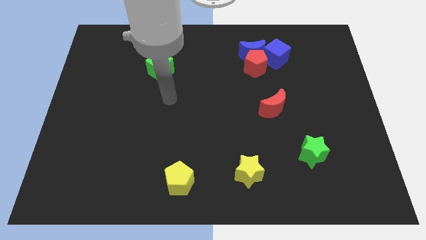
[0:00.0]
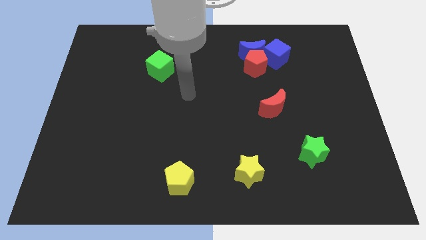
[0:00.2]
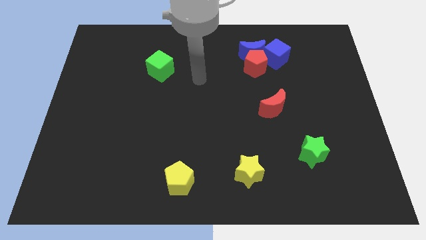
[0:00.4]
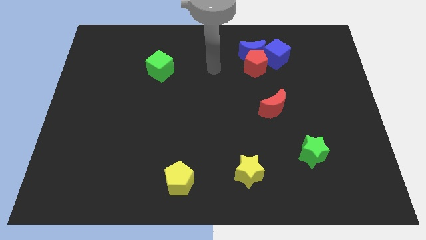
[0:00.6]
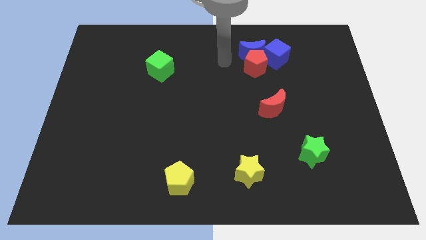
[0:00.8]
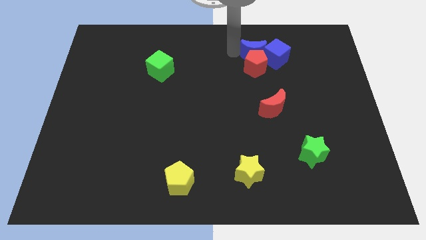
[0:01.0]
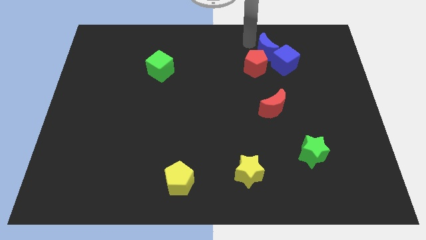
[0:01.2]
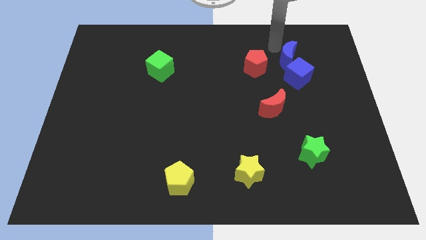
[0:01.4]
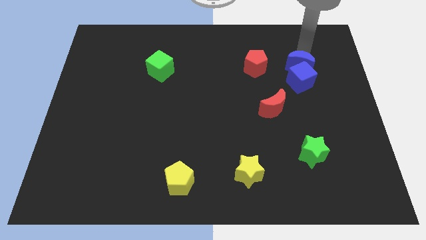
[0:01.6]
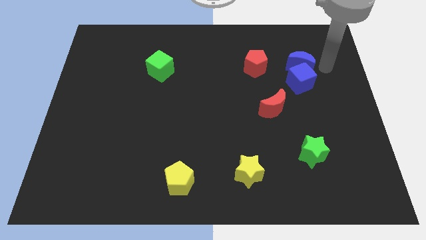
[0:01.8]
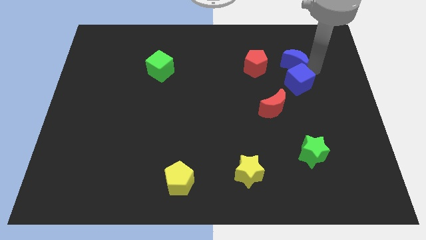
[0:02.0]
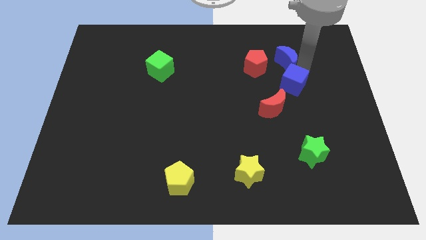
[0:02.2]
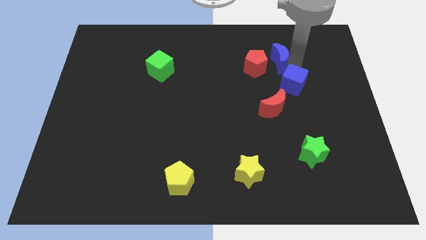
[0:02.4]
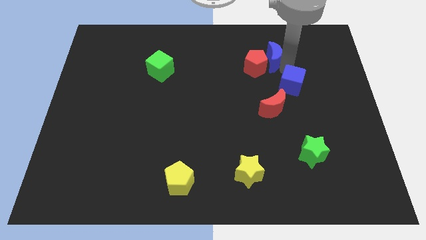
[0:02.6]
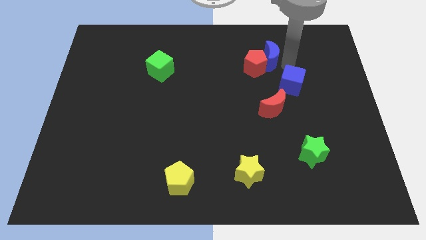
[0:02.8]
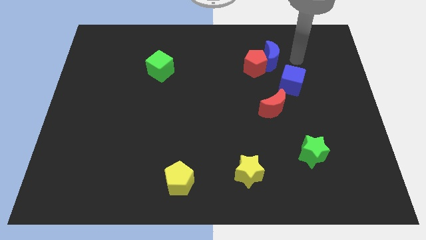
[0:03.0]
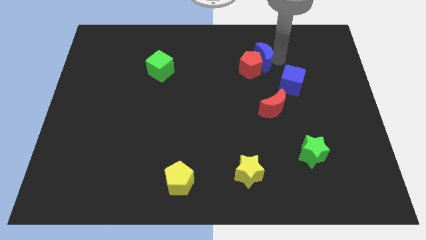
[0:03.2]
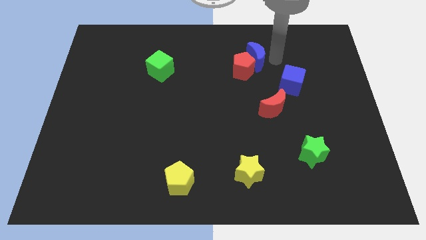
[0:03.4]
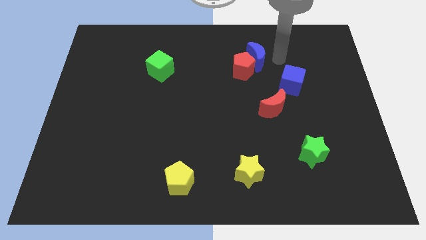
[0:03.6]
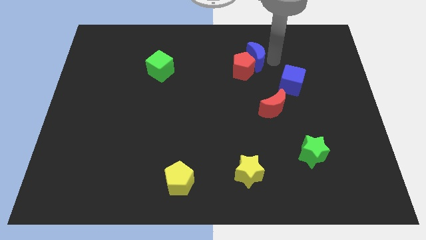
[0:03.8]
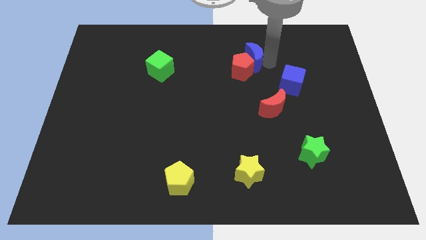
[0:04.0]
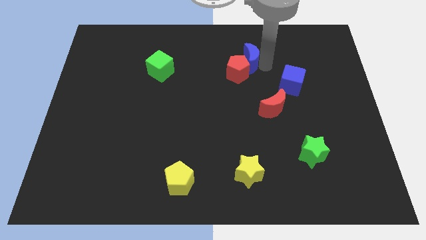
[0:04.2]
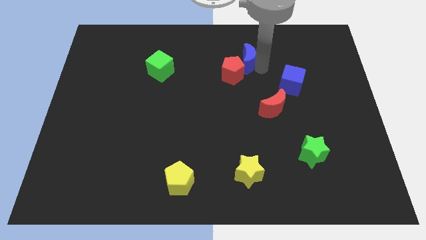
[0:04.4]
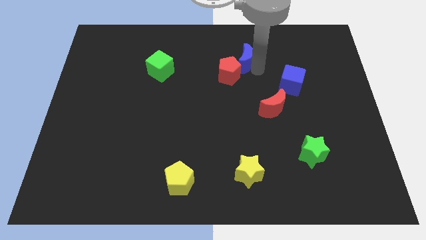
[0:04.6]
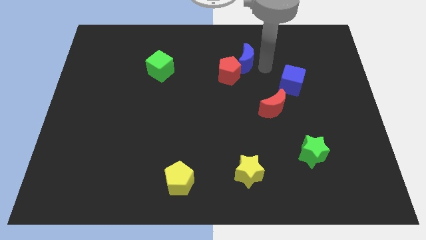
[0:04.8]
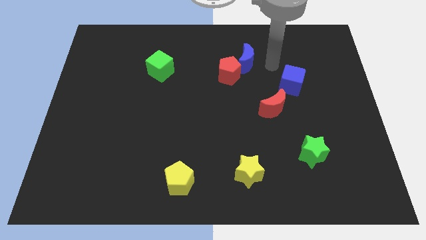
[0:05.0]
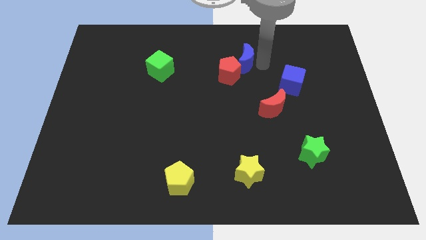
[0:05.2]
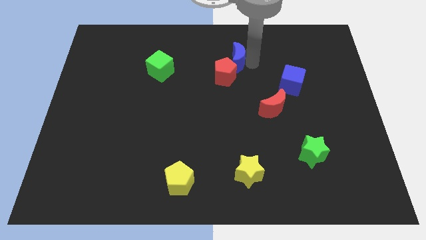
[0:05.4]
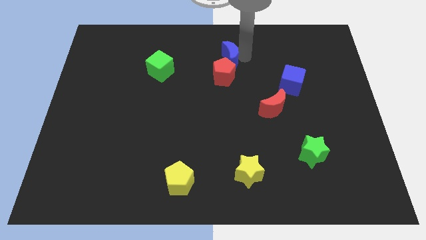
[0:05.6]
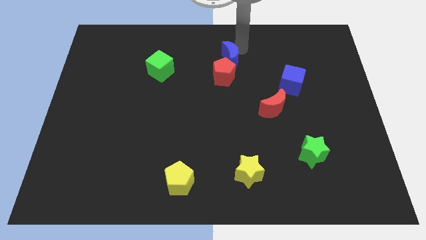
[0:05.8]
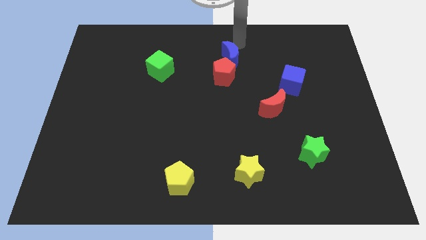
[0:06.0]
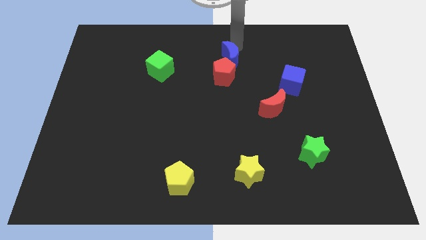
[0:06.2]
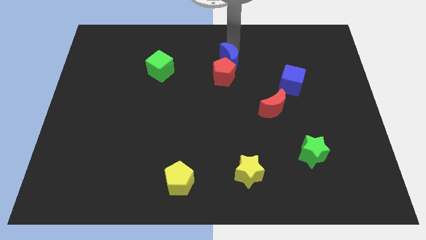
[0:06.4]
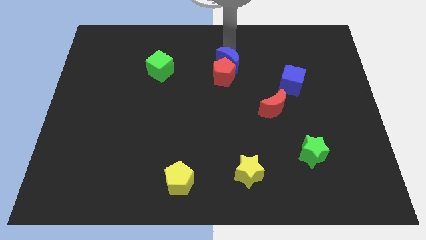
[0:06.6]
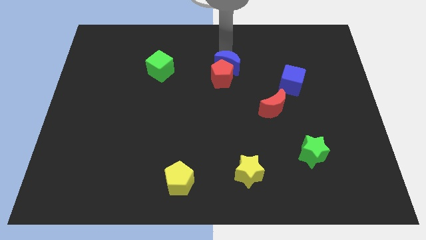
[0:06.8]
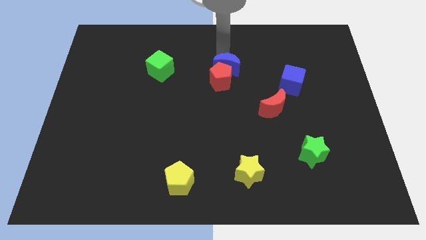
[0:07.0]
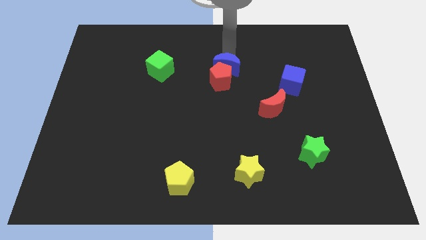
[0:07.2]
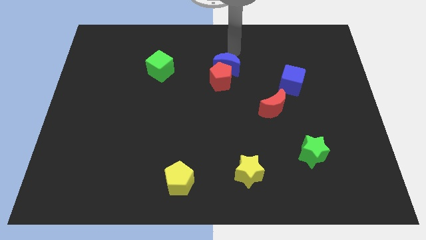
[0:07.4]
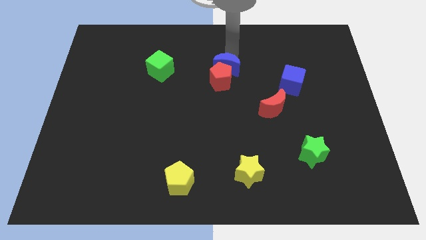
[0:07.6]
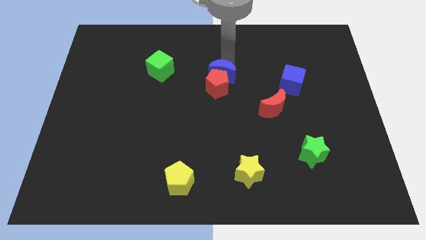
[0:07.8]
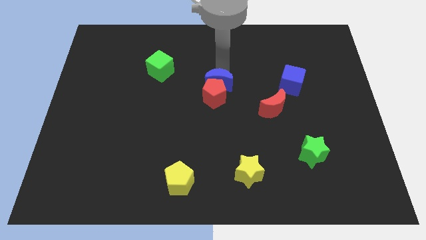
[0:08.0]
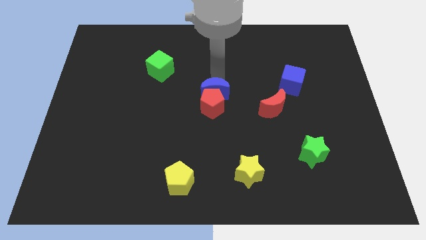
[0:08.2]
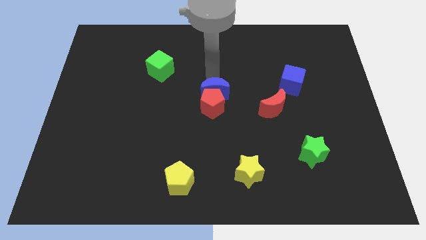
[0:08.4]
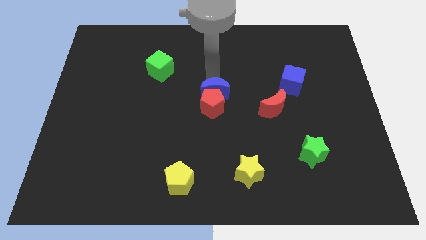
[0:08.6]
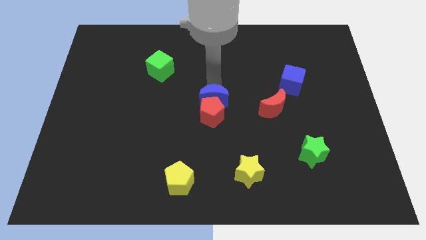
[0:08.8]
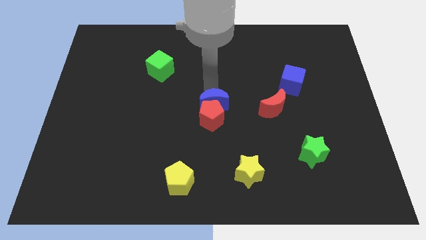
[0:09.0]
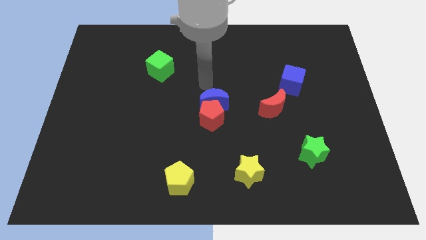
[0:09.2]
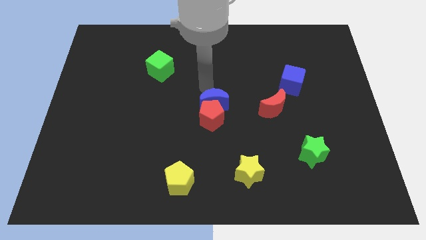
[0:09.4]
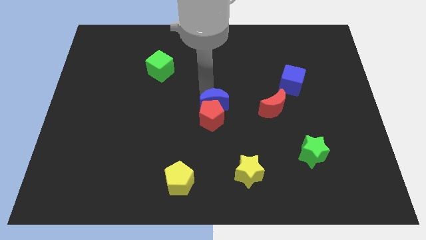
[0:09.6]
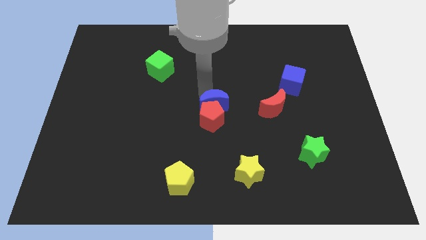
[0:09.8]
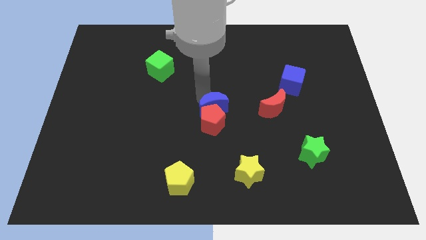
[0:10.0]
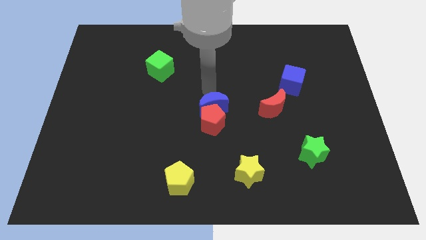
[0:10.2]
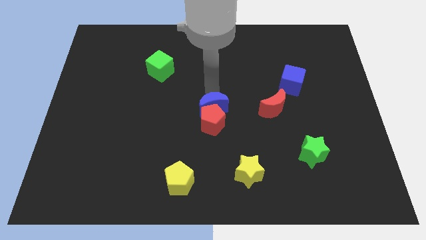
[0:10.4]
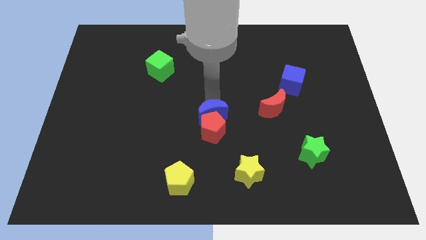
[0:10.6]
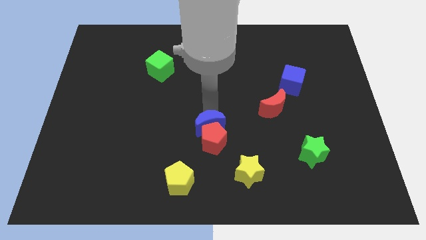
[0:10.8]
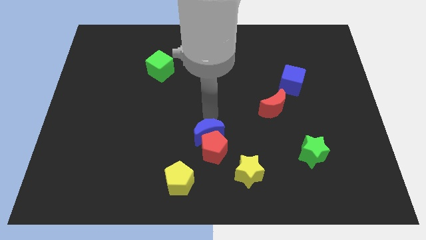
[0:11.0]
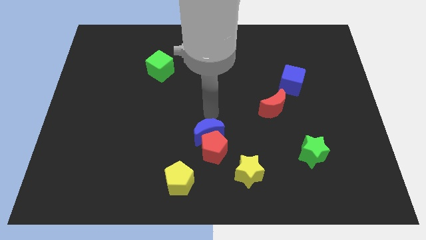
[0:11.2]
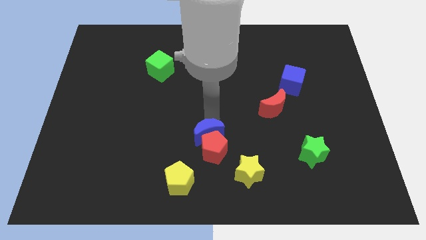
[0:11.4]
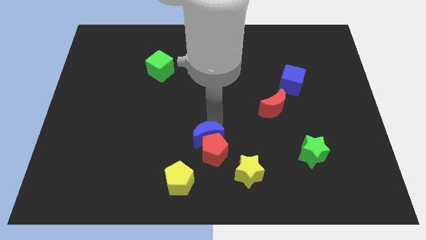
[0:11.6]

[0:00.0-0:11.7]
move the blue moon diagonally up and to the right of the yellow pentagon

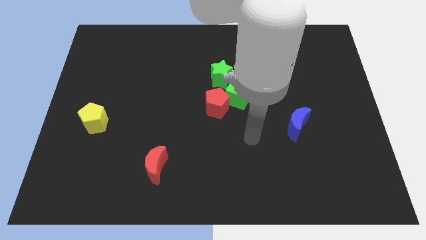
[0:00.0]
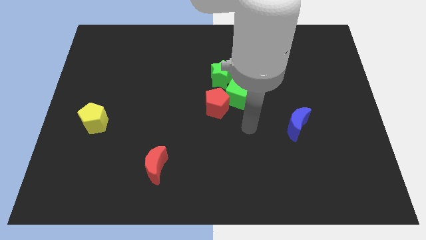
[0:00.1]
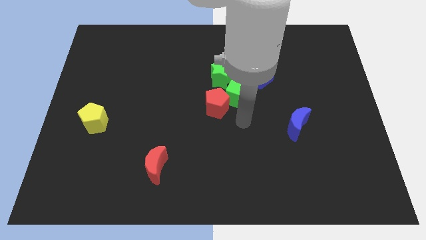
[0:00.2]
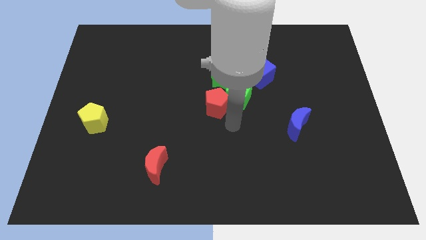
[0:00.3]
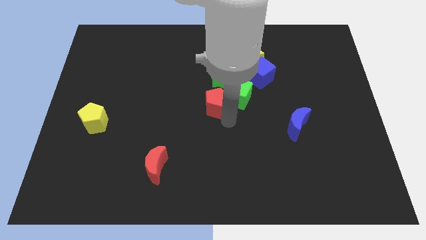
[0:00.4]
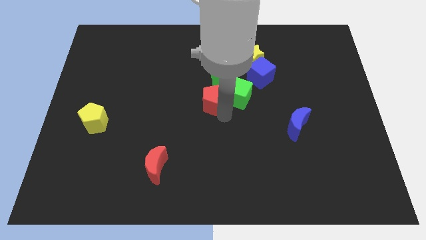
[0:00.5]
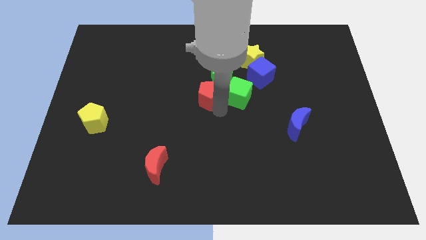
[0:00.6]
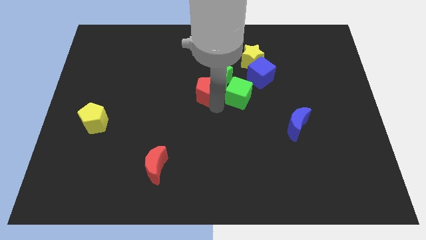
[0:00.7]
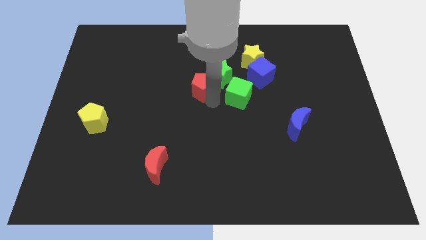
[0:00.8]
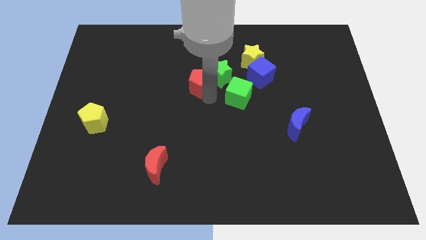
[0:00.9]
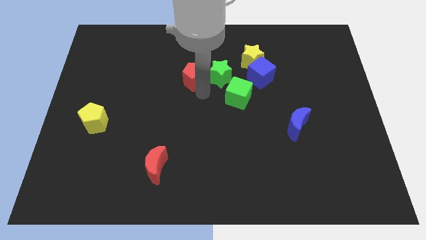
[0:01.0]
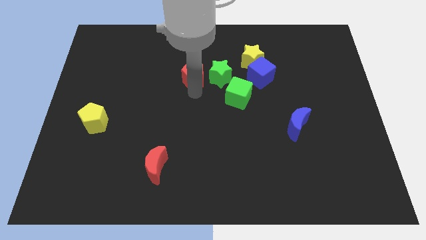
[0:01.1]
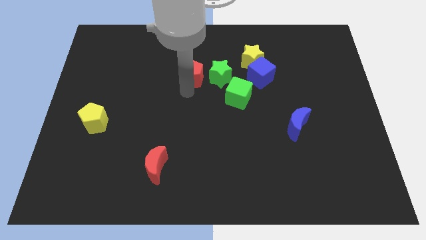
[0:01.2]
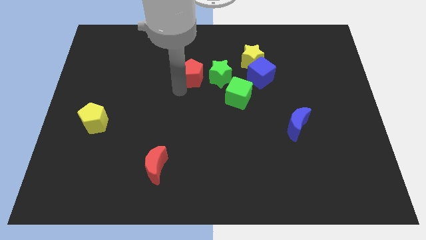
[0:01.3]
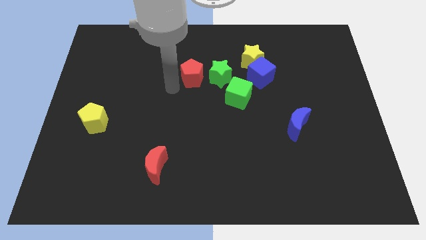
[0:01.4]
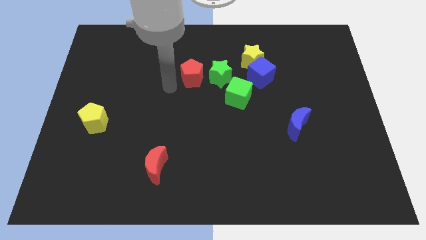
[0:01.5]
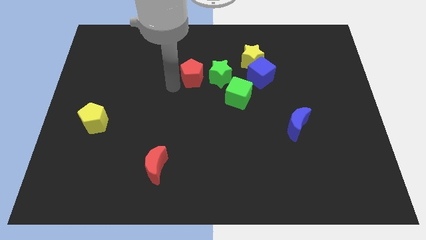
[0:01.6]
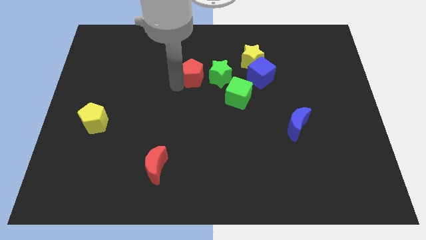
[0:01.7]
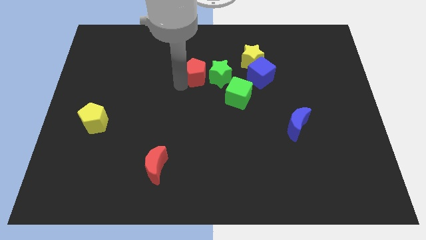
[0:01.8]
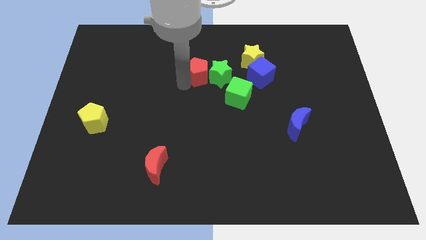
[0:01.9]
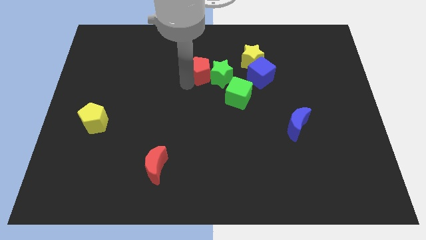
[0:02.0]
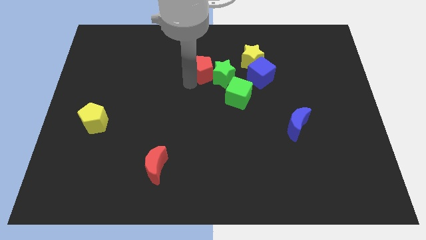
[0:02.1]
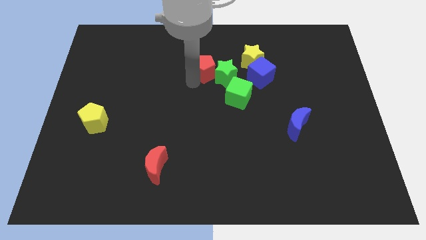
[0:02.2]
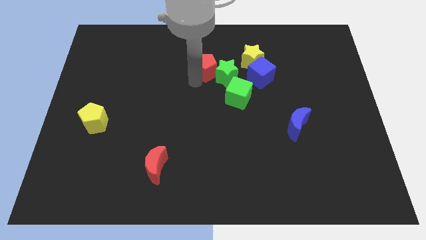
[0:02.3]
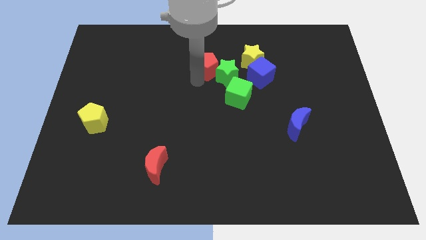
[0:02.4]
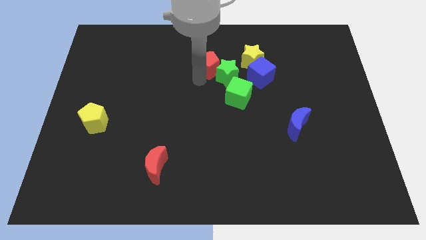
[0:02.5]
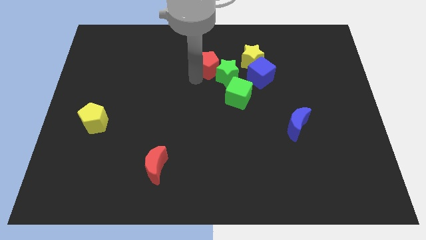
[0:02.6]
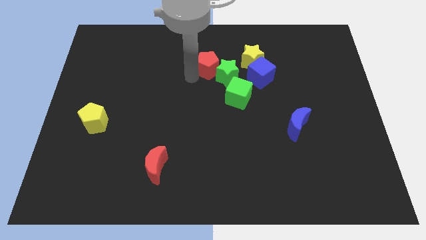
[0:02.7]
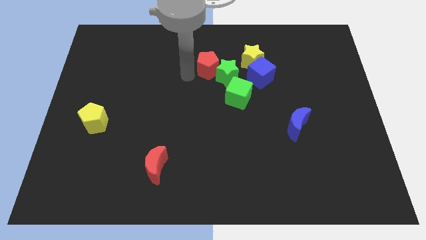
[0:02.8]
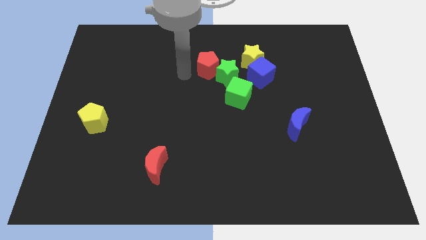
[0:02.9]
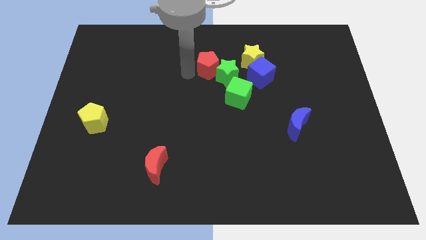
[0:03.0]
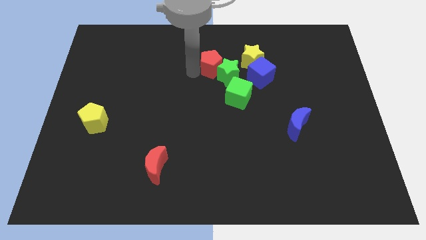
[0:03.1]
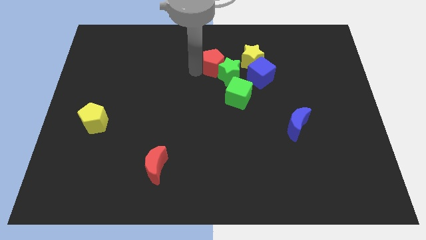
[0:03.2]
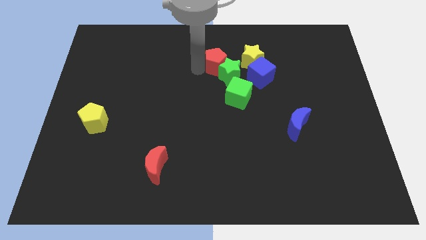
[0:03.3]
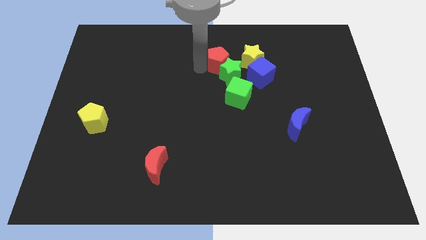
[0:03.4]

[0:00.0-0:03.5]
push the red pentagon to the top of the green cube
